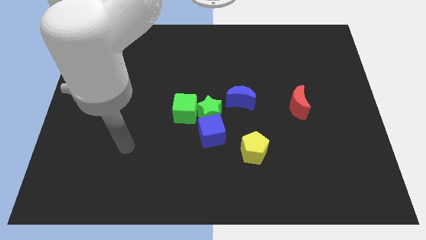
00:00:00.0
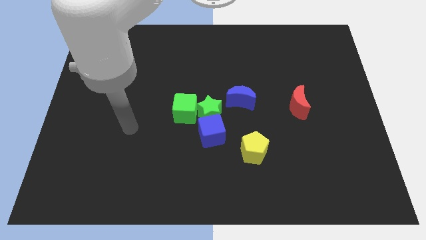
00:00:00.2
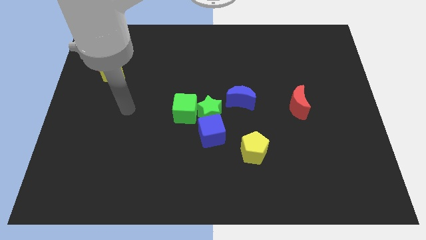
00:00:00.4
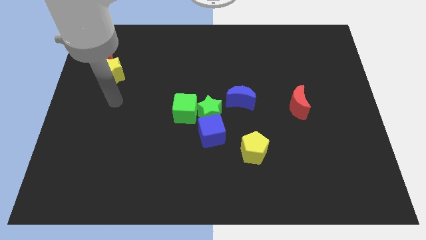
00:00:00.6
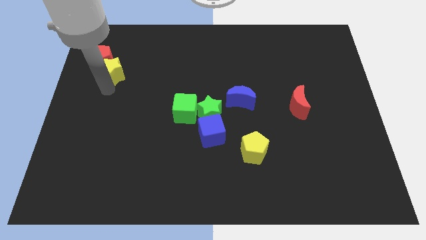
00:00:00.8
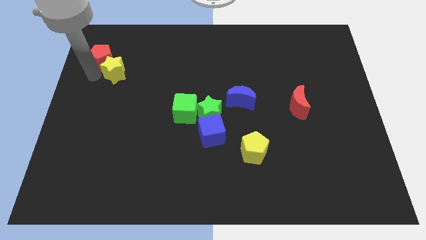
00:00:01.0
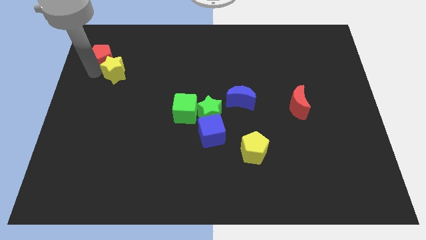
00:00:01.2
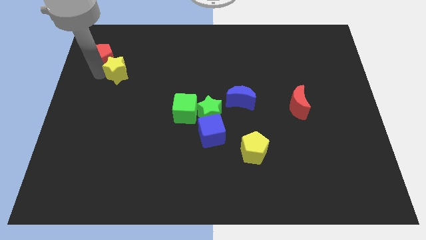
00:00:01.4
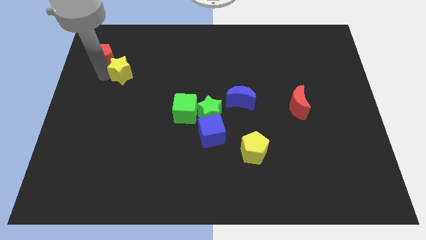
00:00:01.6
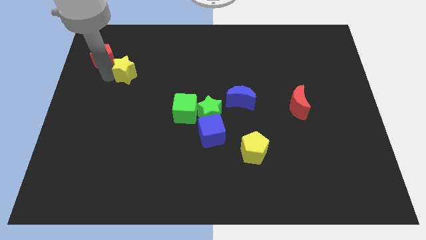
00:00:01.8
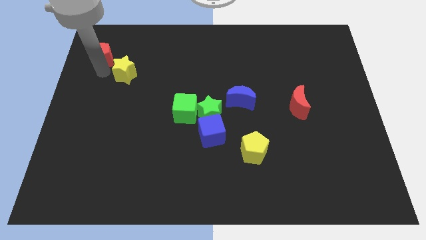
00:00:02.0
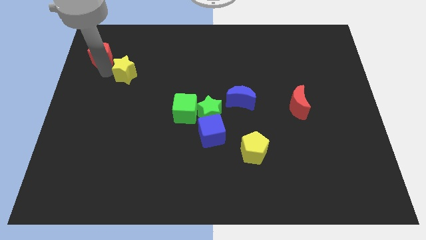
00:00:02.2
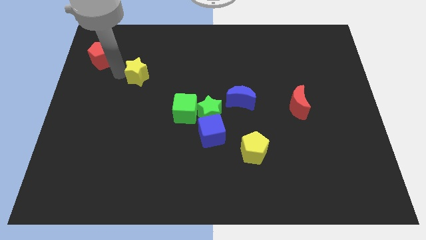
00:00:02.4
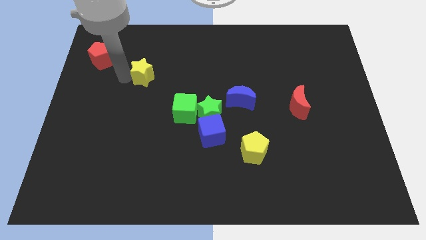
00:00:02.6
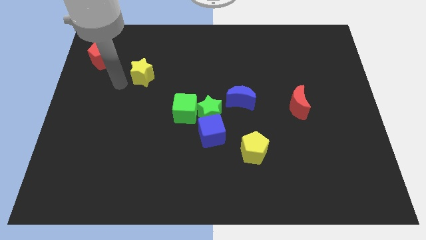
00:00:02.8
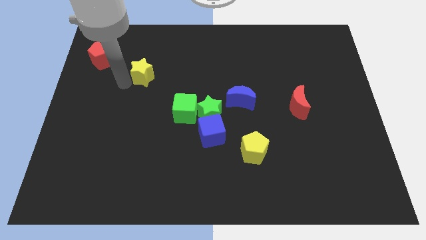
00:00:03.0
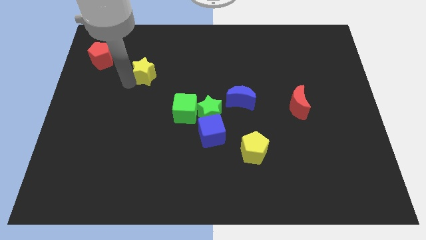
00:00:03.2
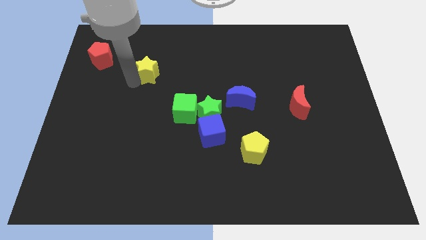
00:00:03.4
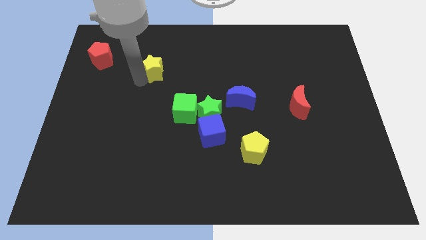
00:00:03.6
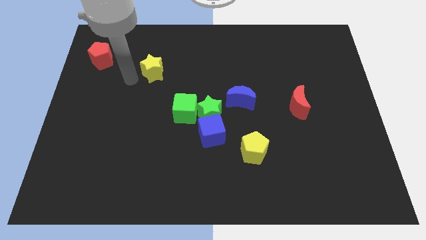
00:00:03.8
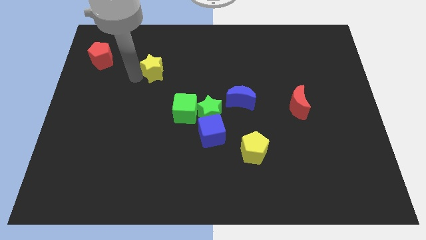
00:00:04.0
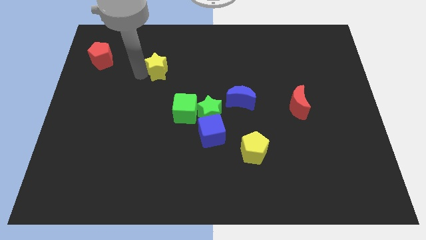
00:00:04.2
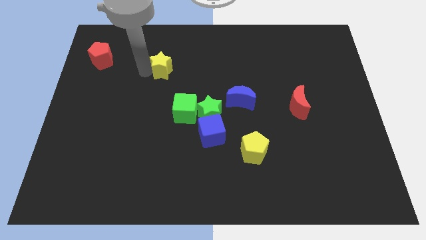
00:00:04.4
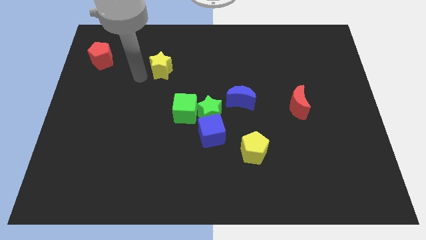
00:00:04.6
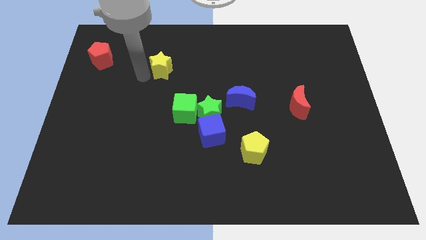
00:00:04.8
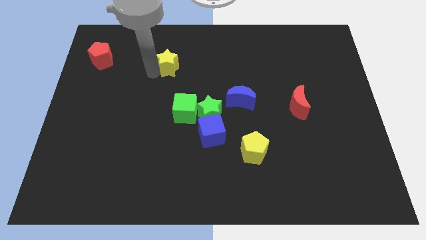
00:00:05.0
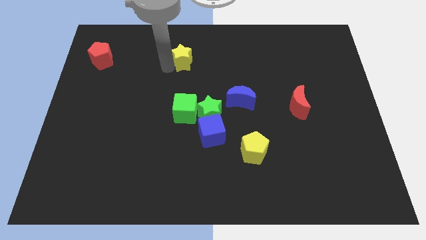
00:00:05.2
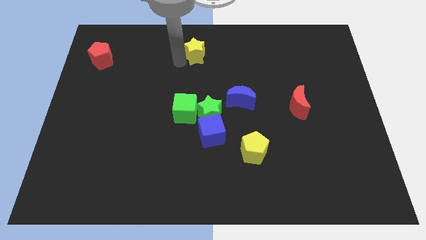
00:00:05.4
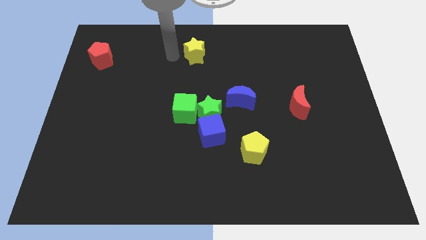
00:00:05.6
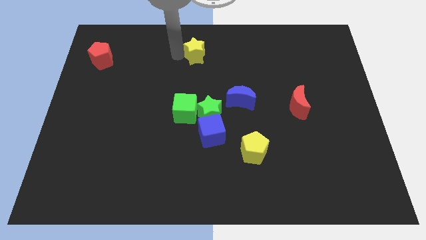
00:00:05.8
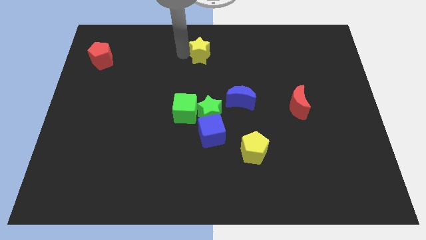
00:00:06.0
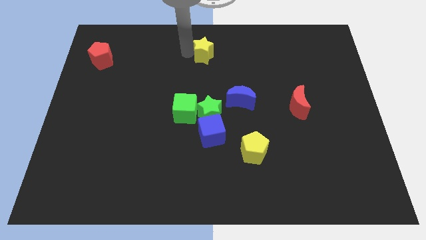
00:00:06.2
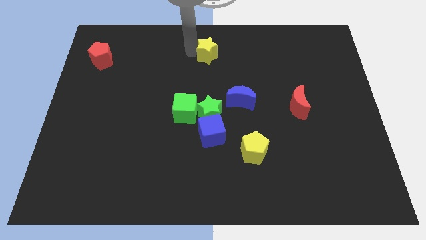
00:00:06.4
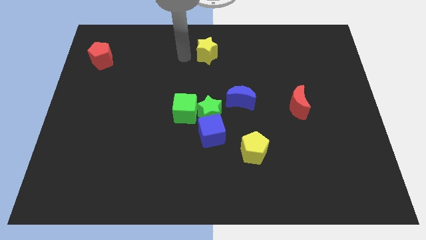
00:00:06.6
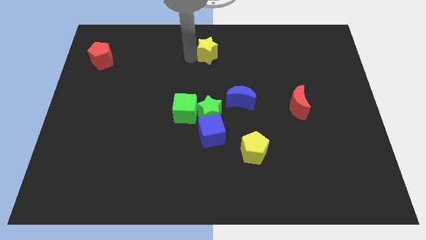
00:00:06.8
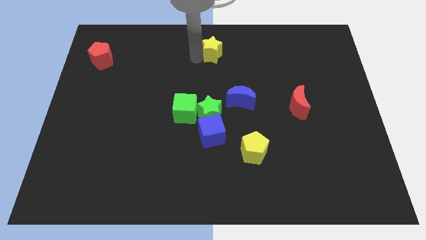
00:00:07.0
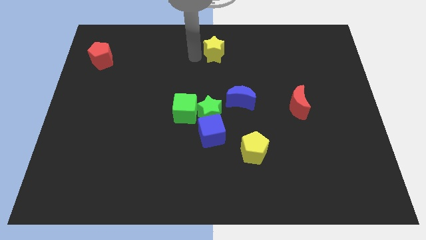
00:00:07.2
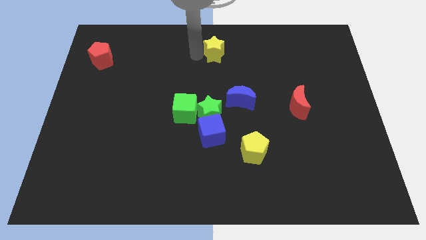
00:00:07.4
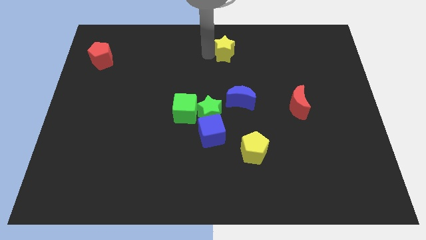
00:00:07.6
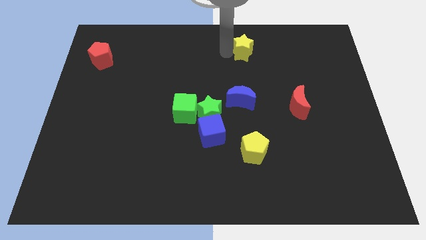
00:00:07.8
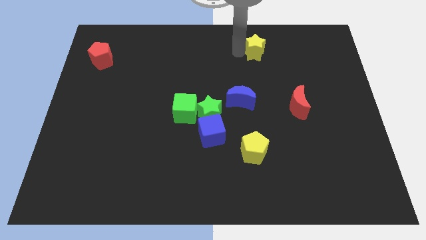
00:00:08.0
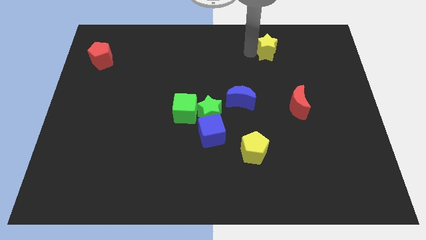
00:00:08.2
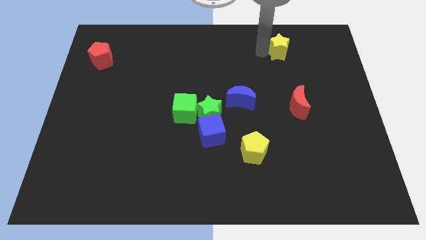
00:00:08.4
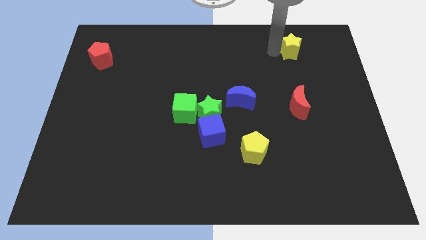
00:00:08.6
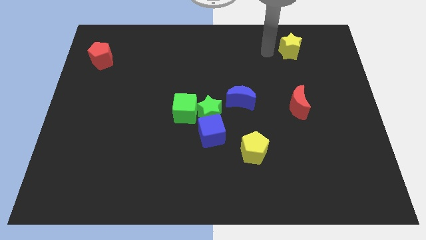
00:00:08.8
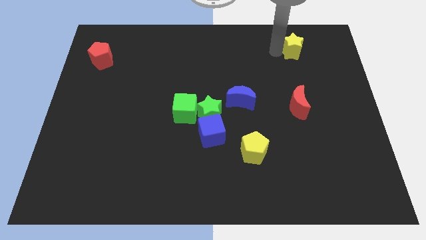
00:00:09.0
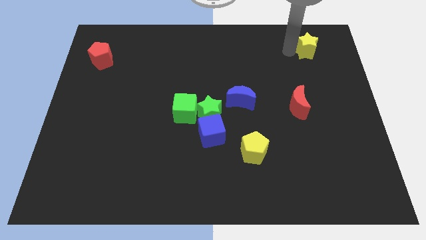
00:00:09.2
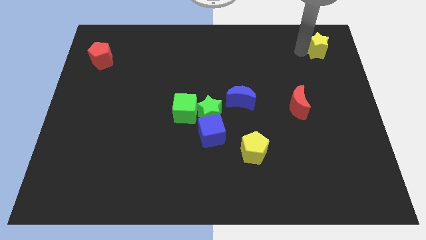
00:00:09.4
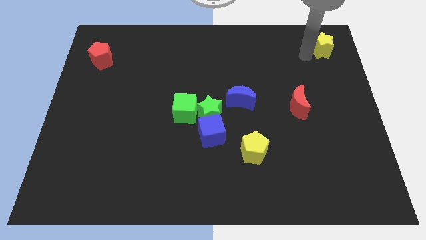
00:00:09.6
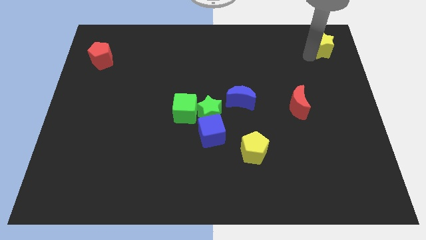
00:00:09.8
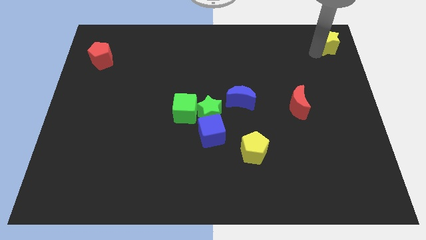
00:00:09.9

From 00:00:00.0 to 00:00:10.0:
push the yellow star to the upper right corner

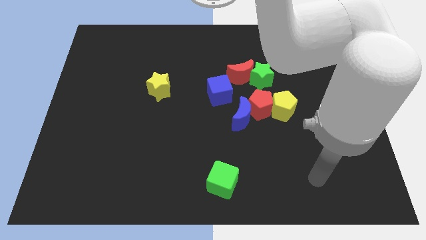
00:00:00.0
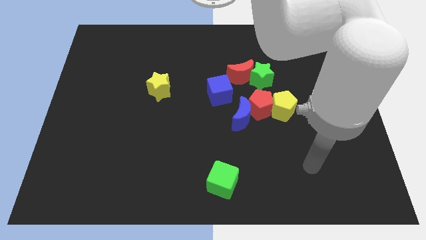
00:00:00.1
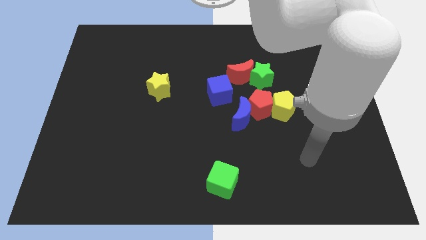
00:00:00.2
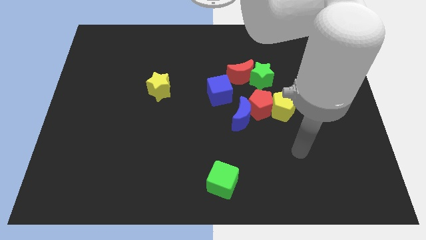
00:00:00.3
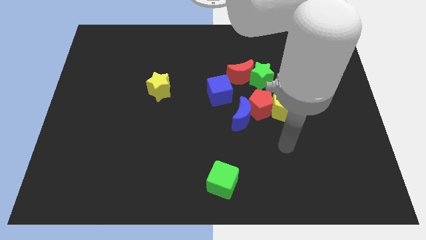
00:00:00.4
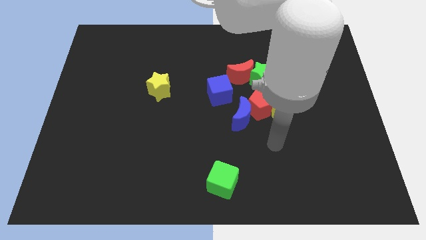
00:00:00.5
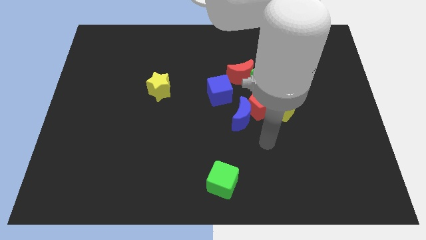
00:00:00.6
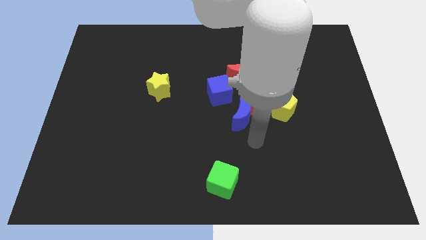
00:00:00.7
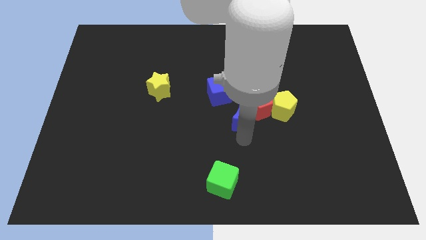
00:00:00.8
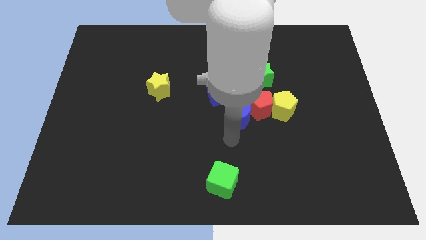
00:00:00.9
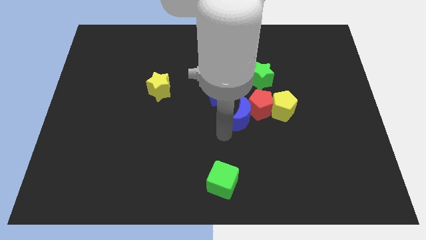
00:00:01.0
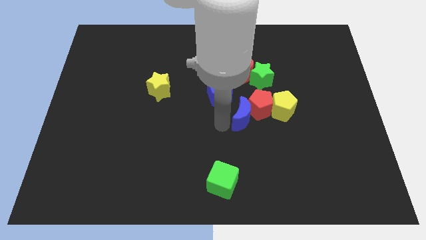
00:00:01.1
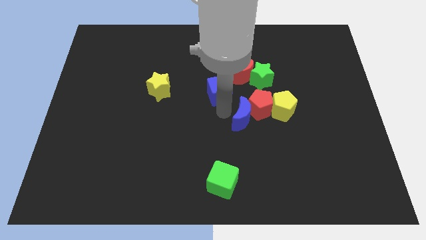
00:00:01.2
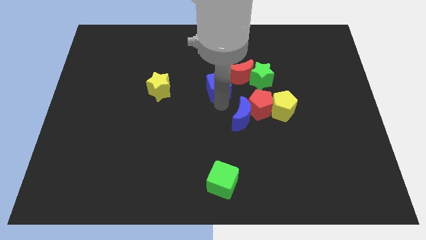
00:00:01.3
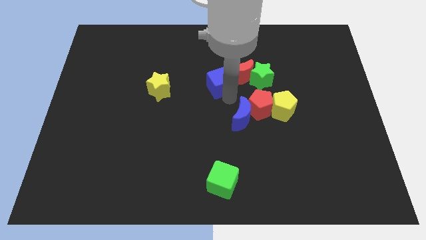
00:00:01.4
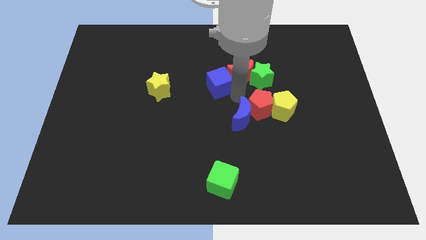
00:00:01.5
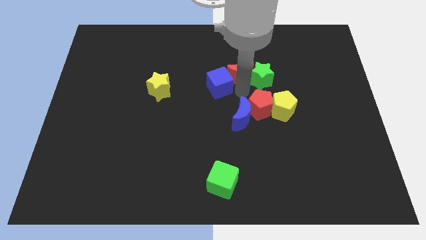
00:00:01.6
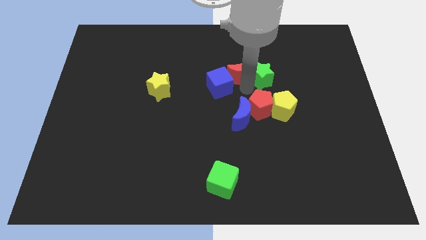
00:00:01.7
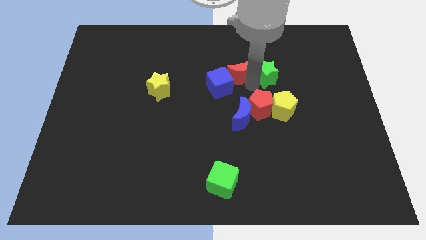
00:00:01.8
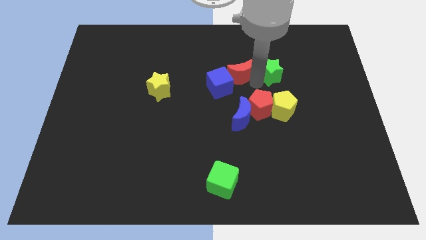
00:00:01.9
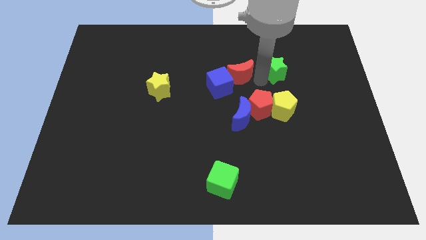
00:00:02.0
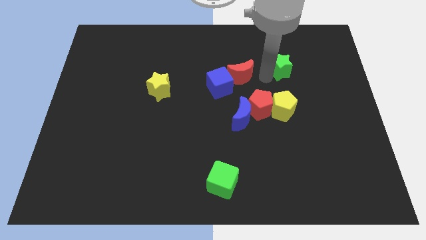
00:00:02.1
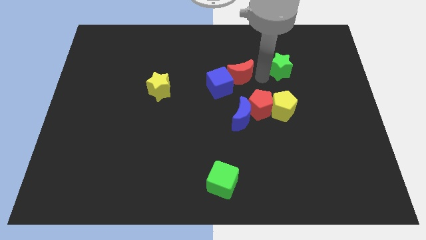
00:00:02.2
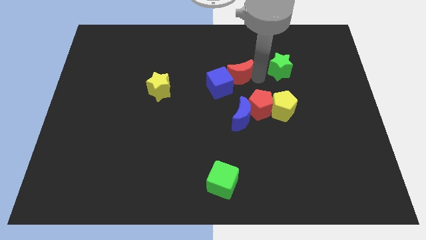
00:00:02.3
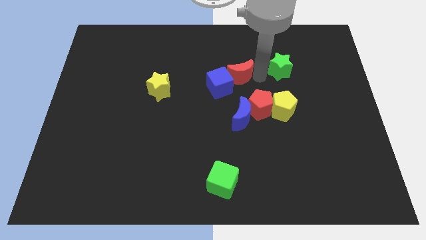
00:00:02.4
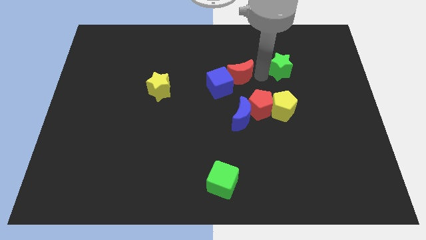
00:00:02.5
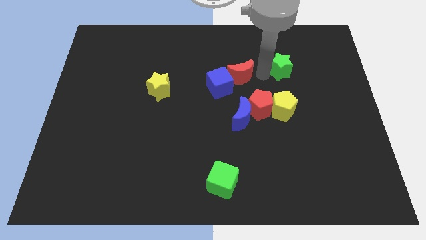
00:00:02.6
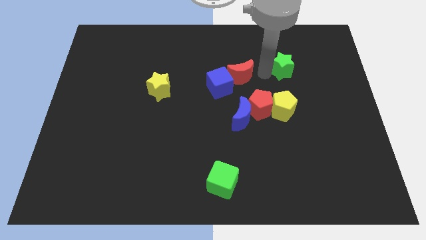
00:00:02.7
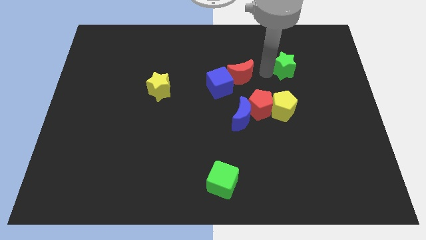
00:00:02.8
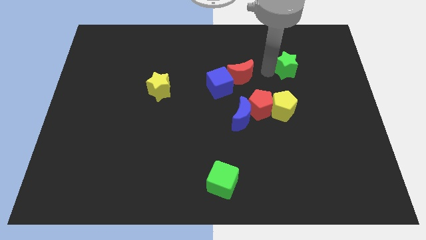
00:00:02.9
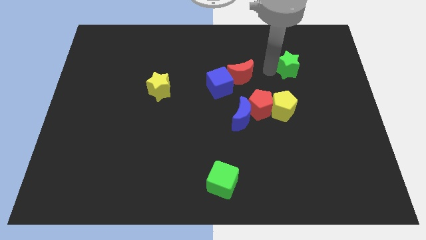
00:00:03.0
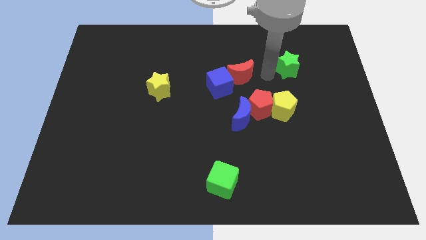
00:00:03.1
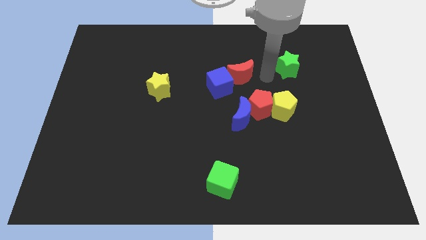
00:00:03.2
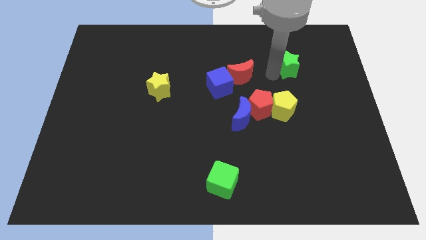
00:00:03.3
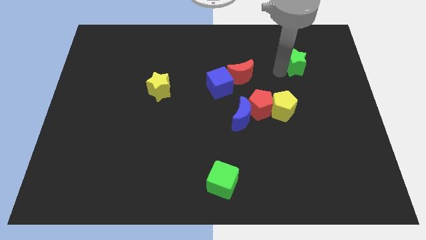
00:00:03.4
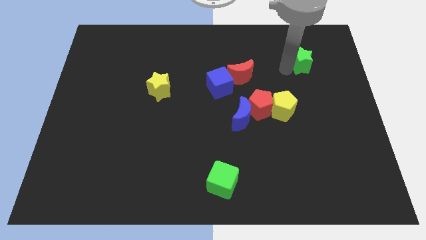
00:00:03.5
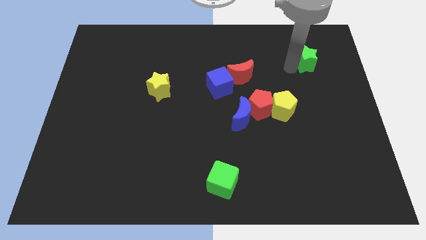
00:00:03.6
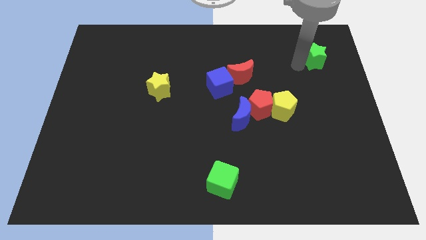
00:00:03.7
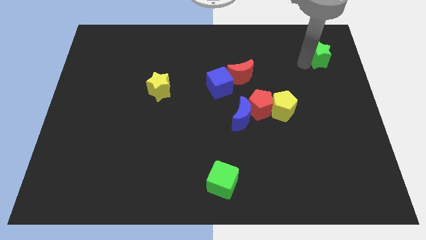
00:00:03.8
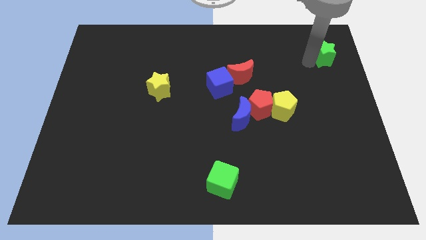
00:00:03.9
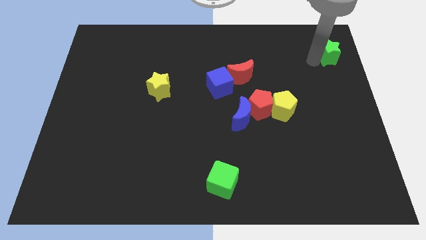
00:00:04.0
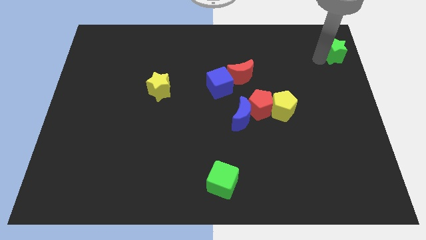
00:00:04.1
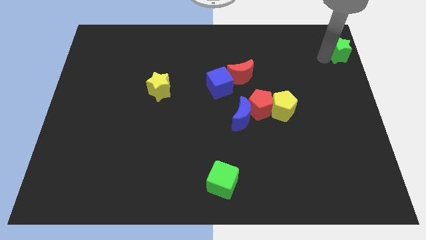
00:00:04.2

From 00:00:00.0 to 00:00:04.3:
push the green star to the top right of the board
